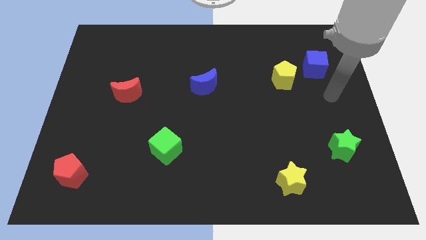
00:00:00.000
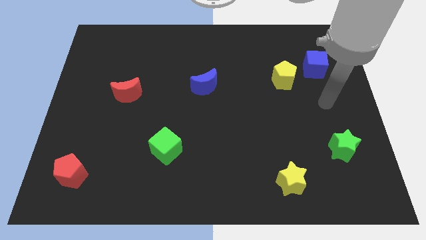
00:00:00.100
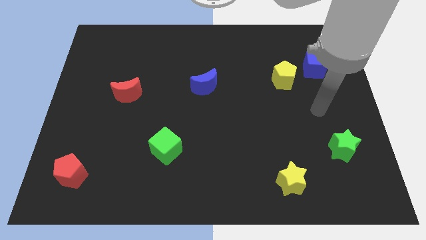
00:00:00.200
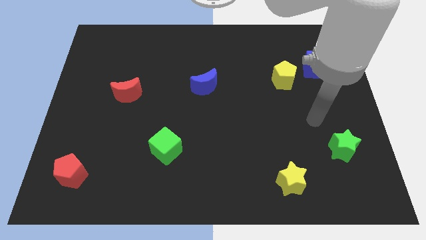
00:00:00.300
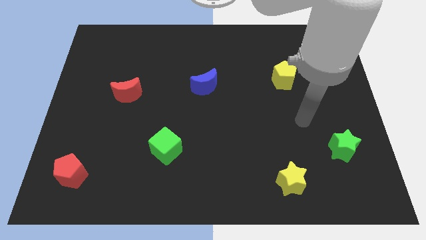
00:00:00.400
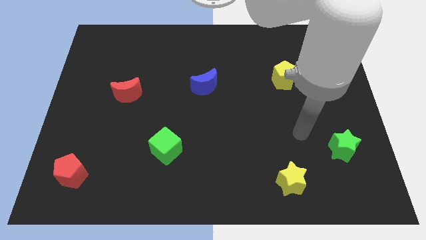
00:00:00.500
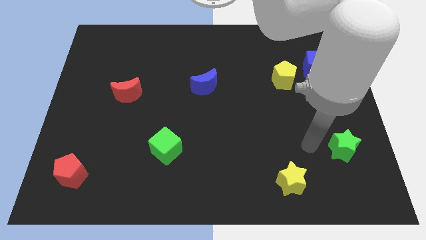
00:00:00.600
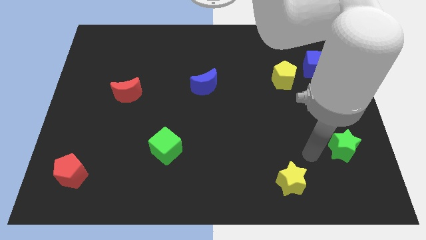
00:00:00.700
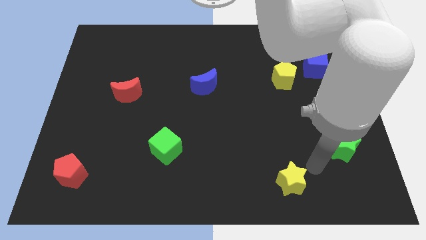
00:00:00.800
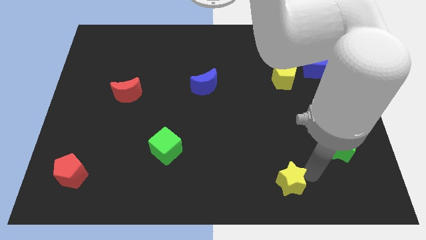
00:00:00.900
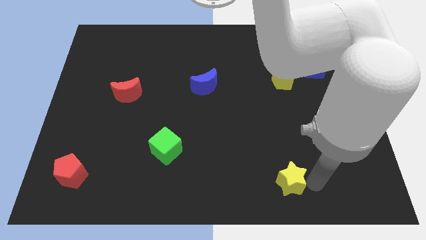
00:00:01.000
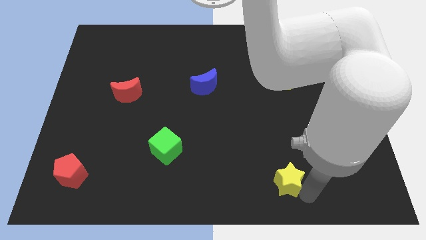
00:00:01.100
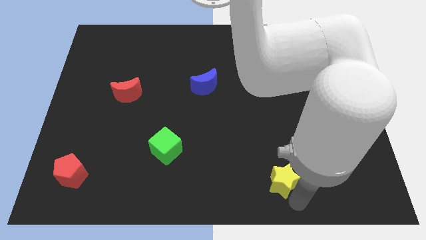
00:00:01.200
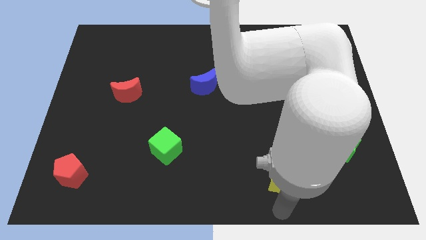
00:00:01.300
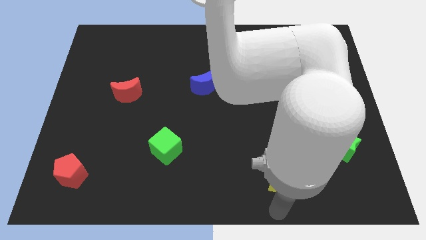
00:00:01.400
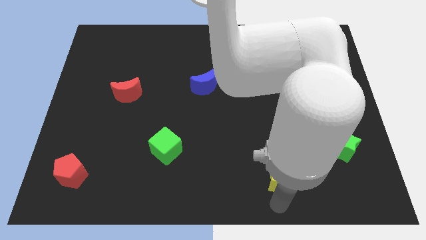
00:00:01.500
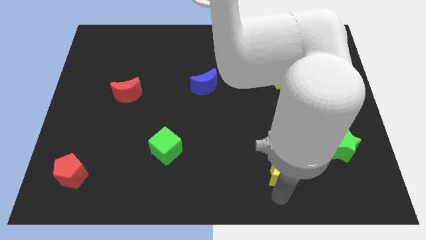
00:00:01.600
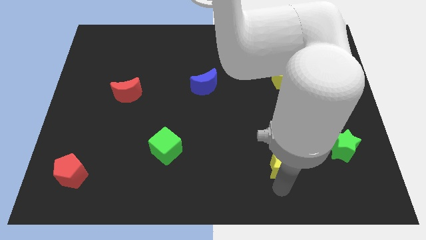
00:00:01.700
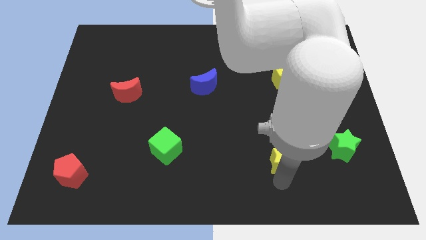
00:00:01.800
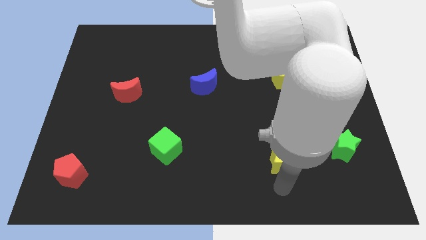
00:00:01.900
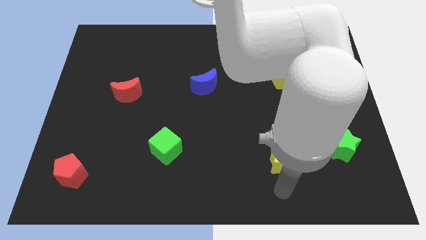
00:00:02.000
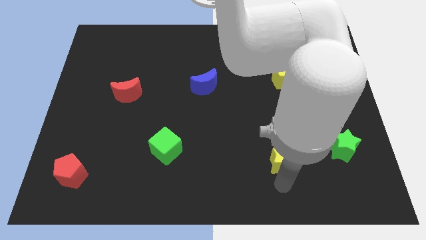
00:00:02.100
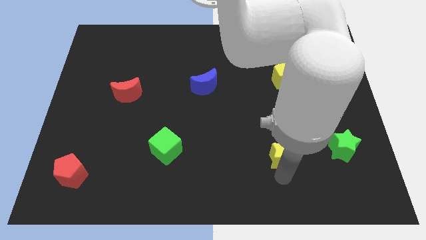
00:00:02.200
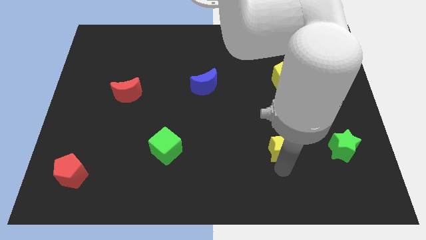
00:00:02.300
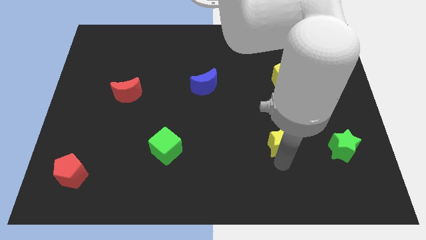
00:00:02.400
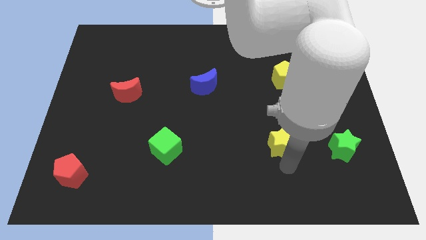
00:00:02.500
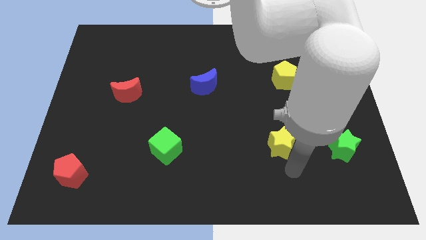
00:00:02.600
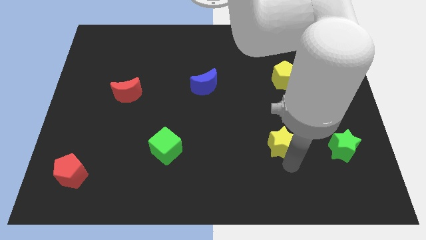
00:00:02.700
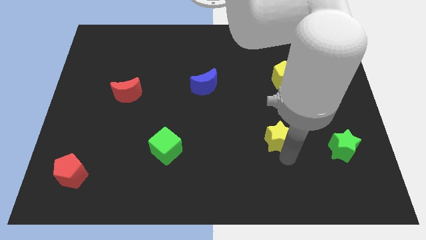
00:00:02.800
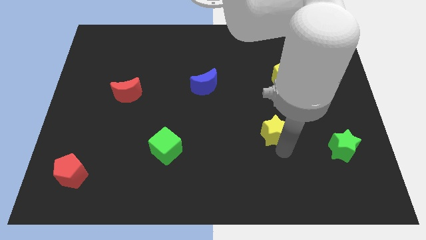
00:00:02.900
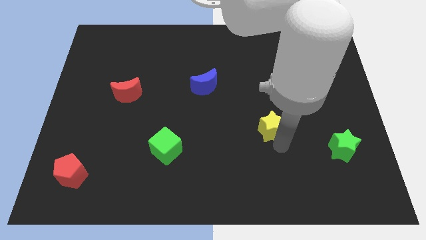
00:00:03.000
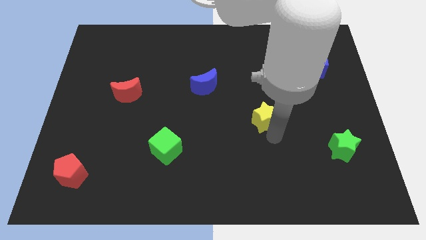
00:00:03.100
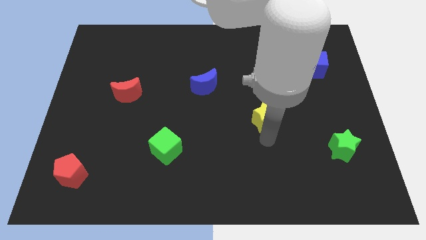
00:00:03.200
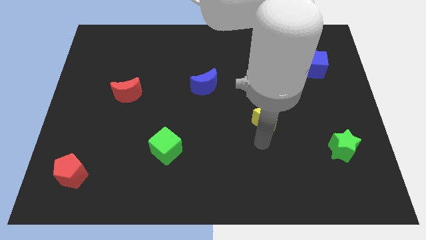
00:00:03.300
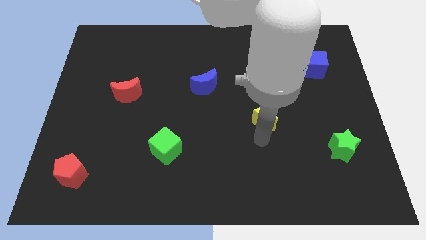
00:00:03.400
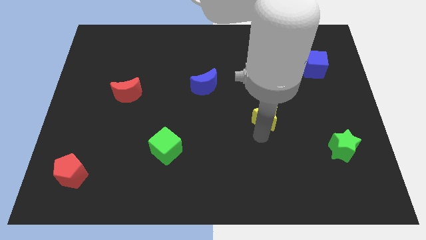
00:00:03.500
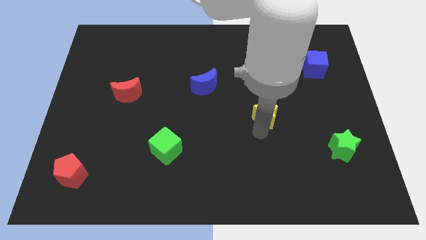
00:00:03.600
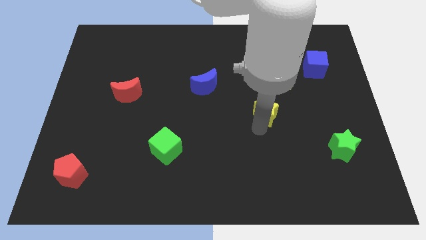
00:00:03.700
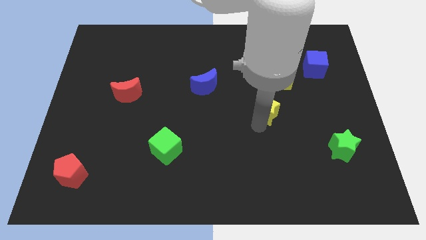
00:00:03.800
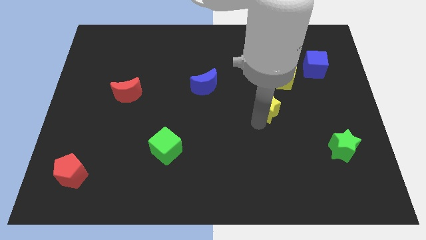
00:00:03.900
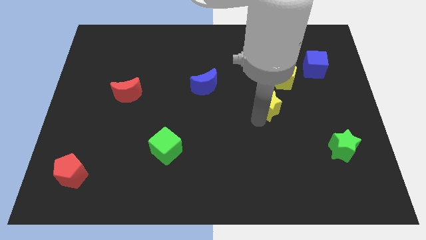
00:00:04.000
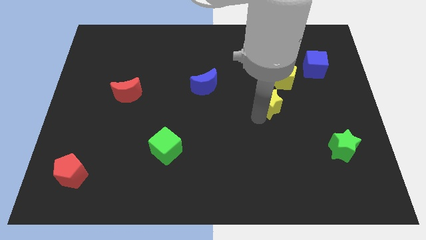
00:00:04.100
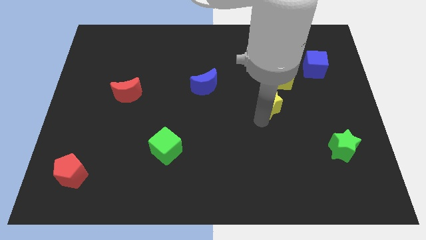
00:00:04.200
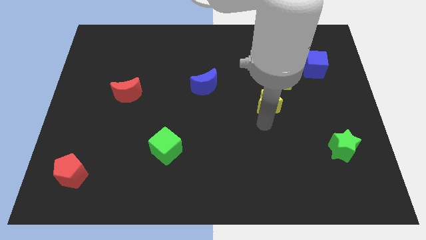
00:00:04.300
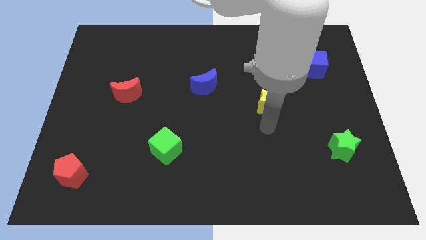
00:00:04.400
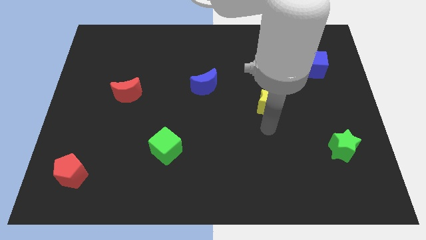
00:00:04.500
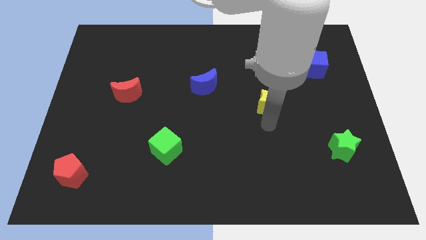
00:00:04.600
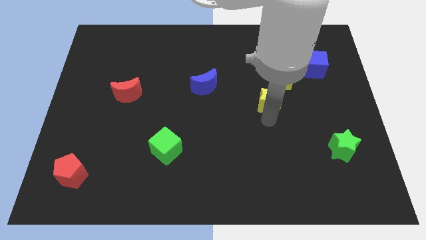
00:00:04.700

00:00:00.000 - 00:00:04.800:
move the yellow star upwards

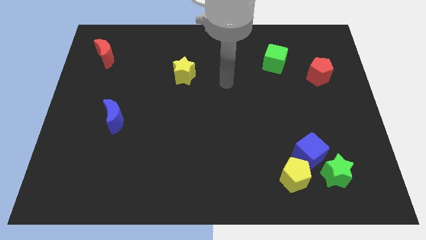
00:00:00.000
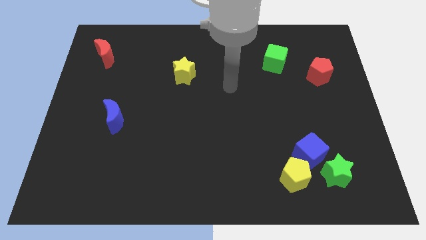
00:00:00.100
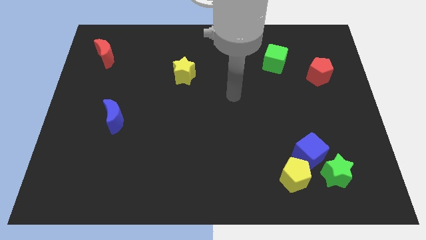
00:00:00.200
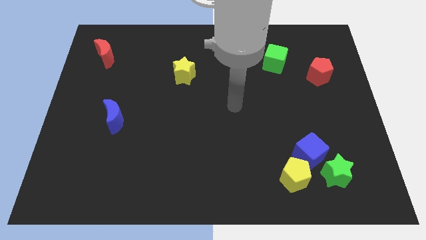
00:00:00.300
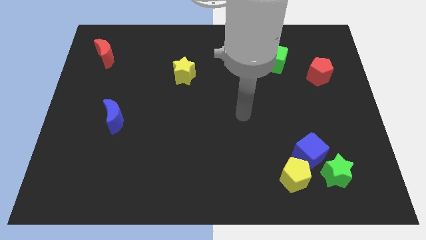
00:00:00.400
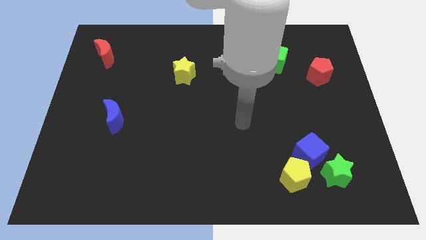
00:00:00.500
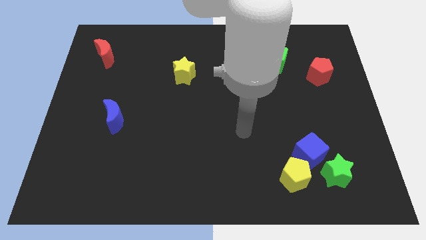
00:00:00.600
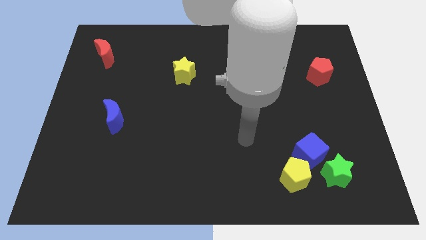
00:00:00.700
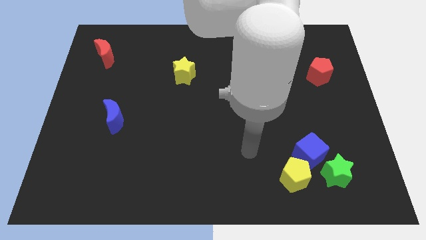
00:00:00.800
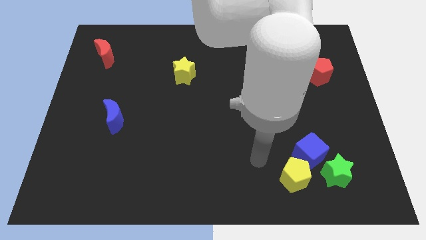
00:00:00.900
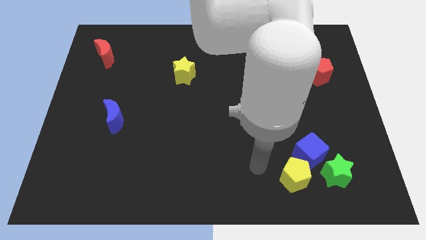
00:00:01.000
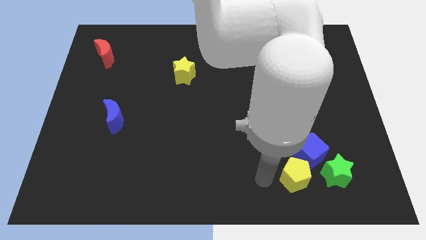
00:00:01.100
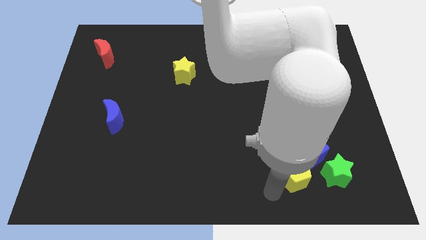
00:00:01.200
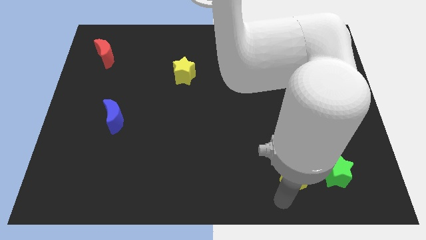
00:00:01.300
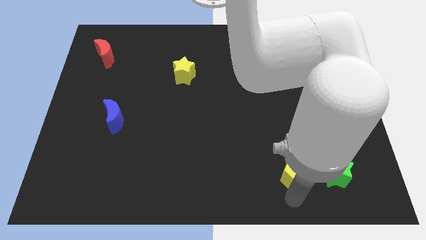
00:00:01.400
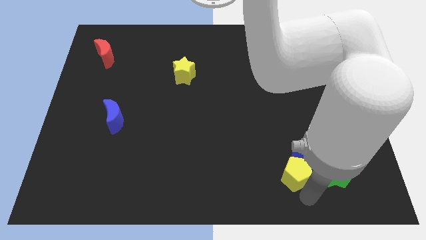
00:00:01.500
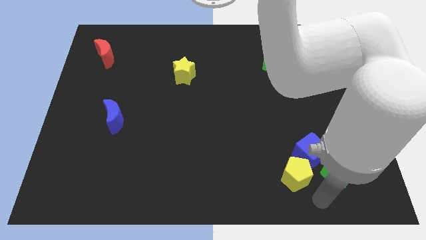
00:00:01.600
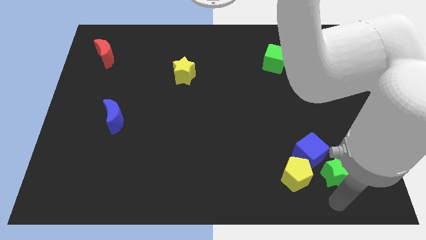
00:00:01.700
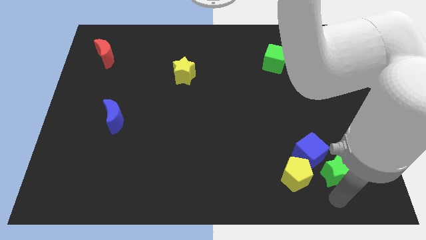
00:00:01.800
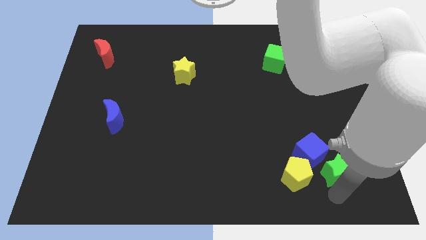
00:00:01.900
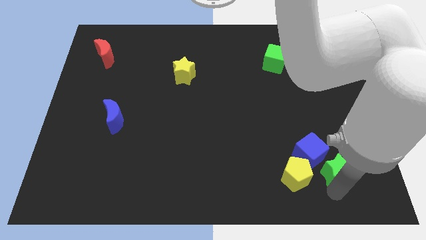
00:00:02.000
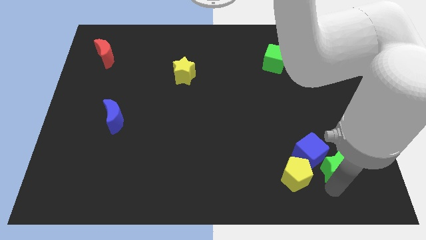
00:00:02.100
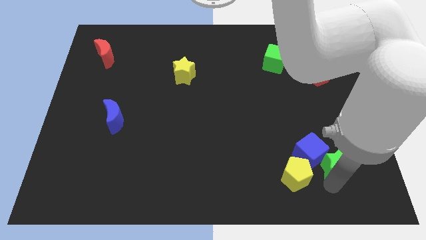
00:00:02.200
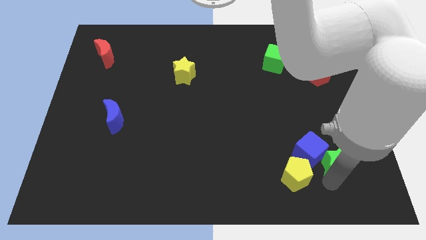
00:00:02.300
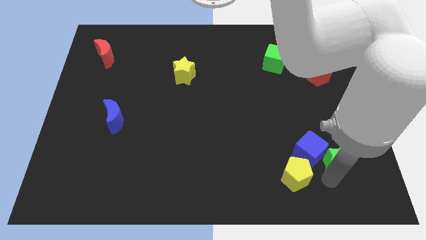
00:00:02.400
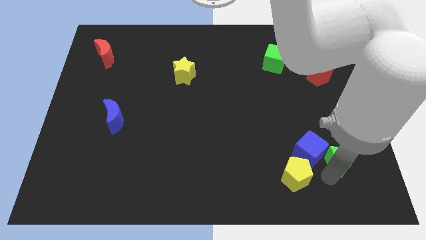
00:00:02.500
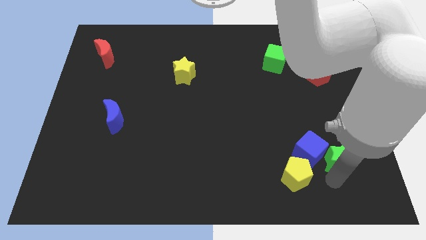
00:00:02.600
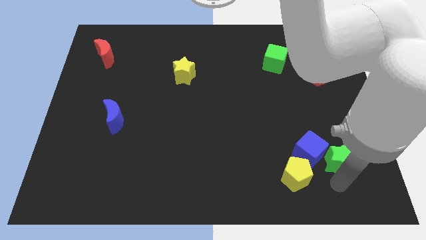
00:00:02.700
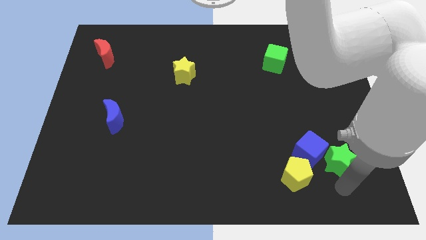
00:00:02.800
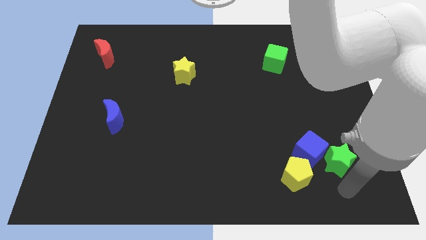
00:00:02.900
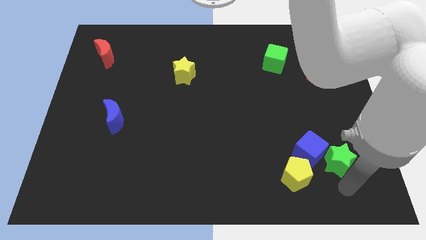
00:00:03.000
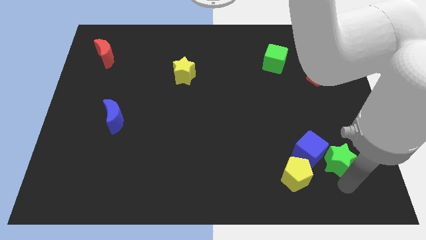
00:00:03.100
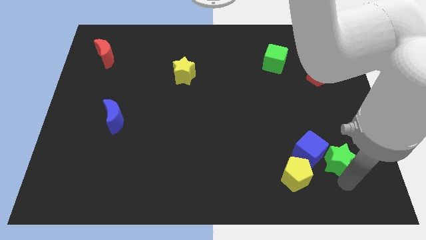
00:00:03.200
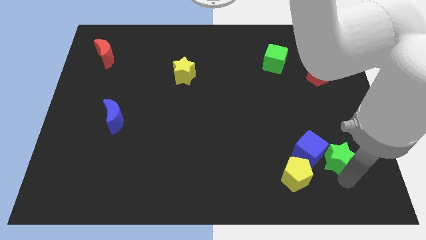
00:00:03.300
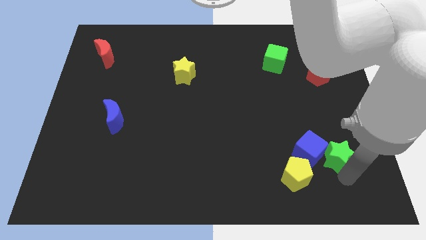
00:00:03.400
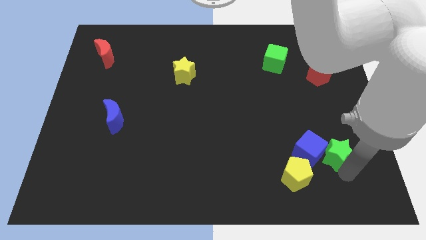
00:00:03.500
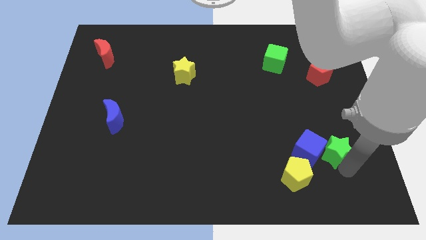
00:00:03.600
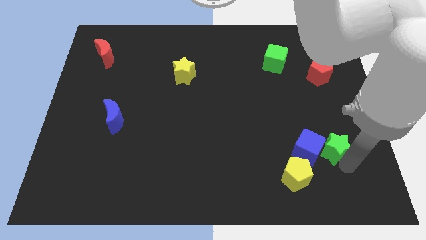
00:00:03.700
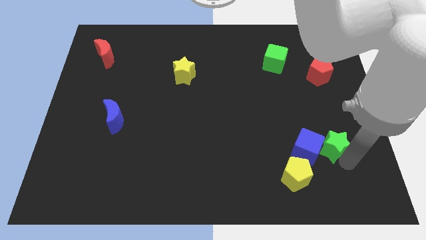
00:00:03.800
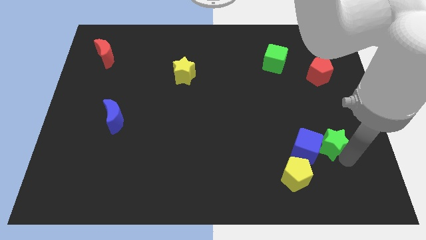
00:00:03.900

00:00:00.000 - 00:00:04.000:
slightly slide the green star upwards
